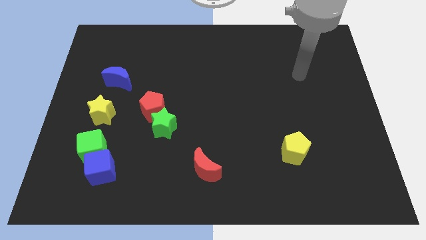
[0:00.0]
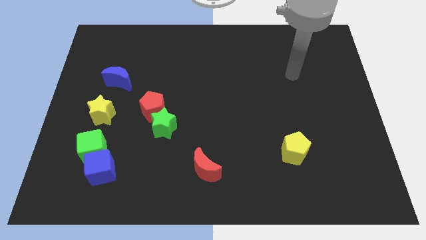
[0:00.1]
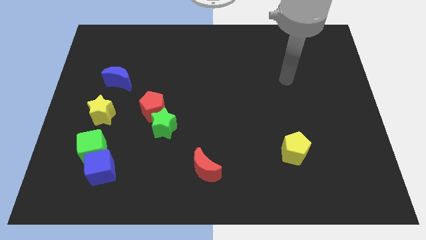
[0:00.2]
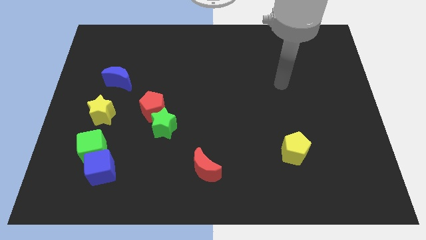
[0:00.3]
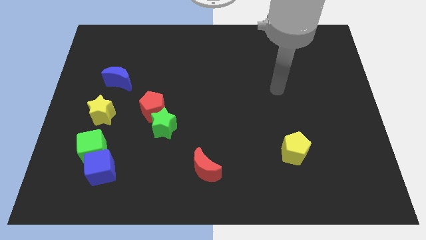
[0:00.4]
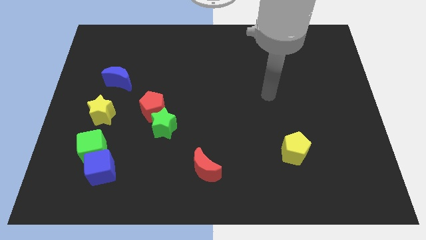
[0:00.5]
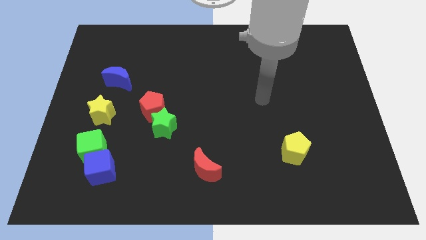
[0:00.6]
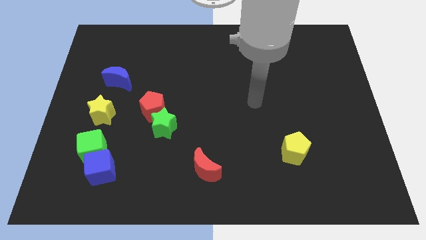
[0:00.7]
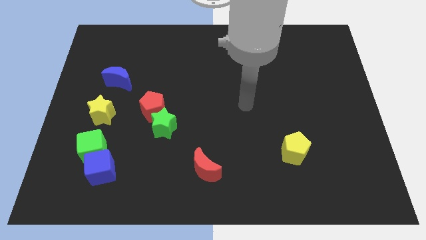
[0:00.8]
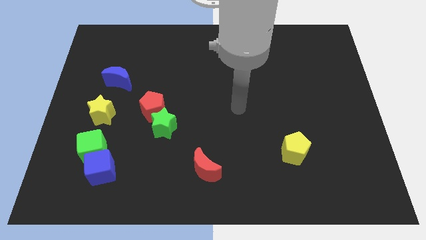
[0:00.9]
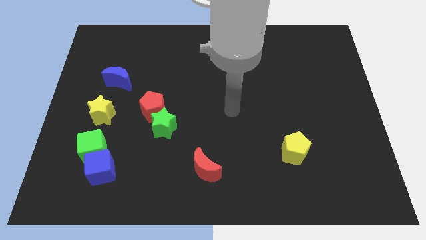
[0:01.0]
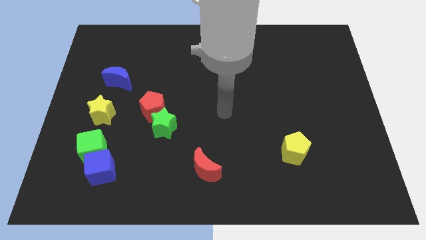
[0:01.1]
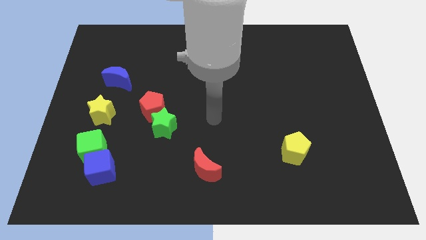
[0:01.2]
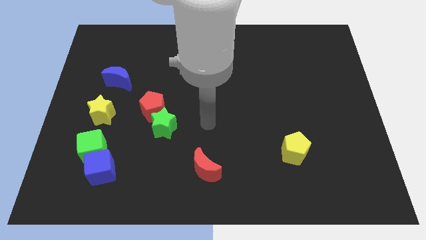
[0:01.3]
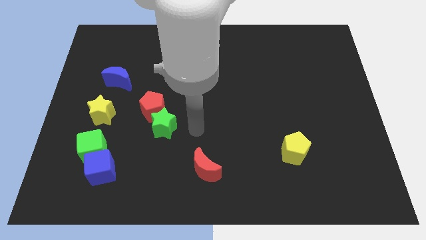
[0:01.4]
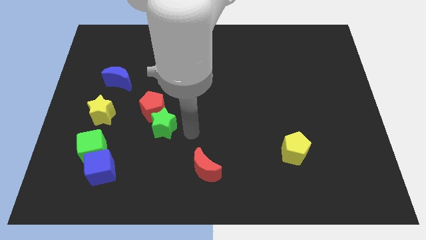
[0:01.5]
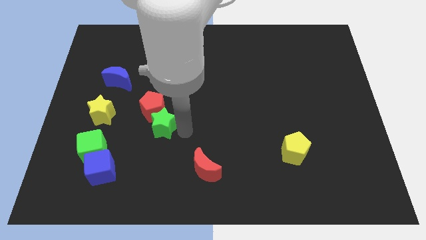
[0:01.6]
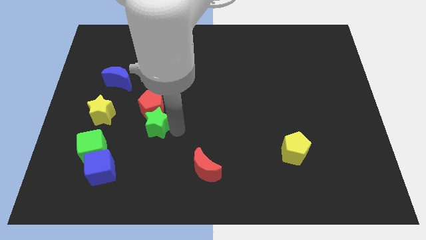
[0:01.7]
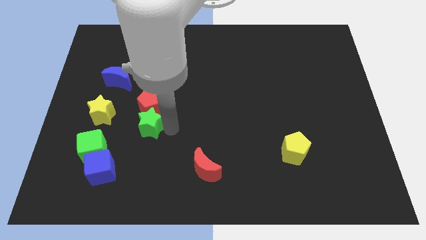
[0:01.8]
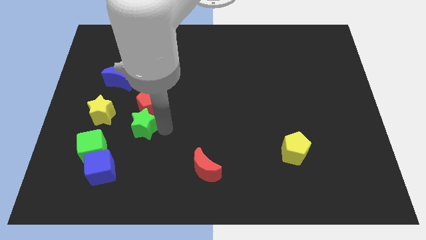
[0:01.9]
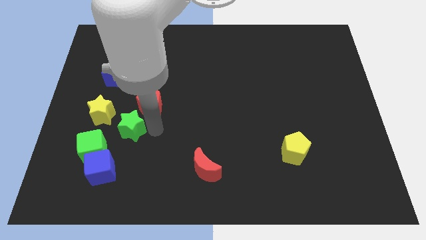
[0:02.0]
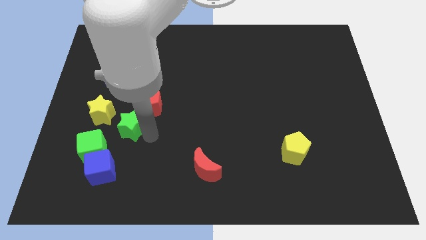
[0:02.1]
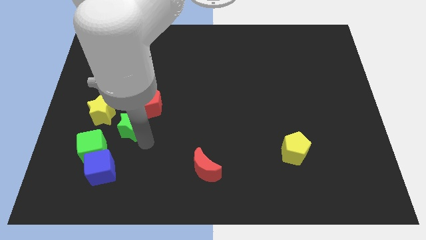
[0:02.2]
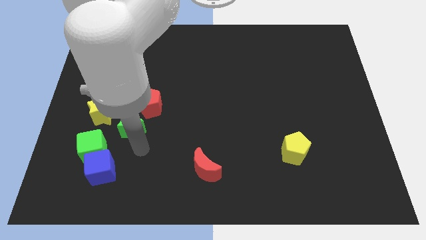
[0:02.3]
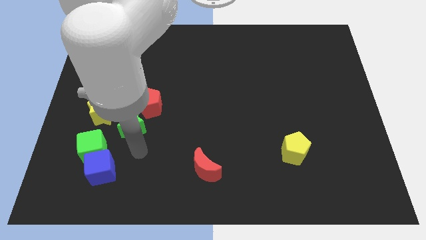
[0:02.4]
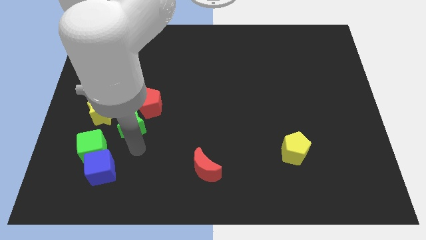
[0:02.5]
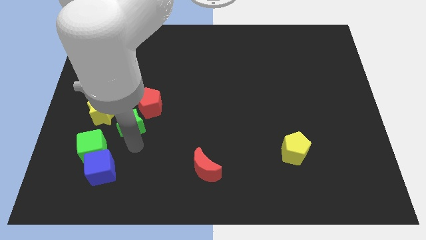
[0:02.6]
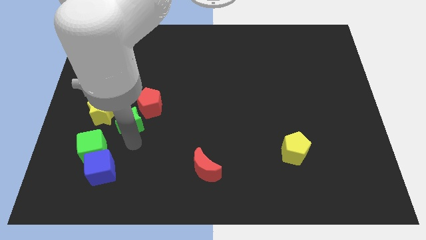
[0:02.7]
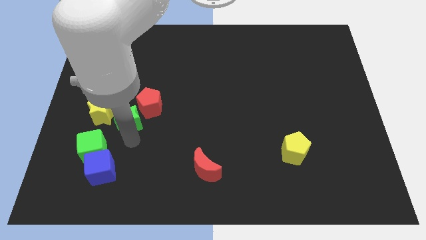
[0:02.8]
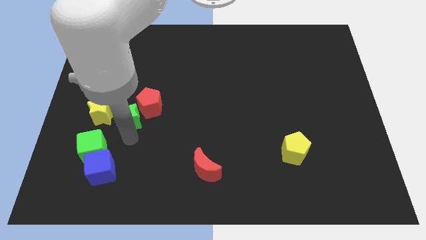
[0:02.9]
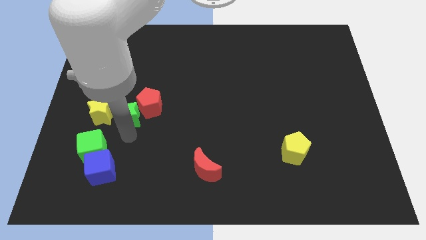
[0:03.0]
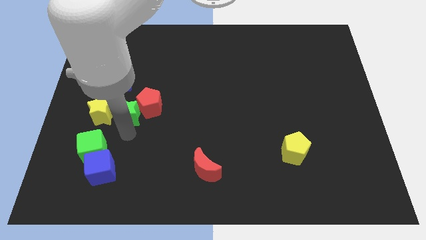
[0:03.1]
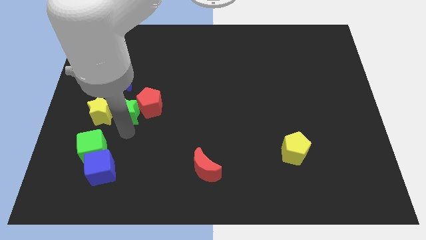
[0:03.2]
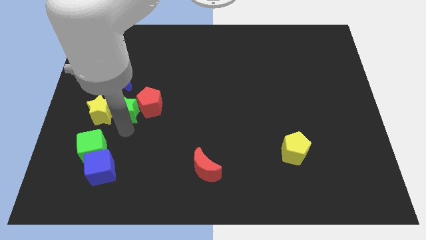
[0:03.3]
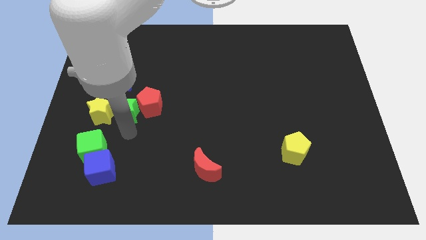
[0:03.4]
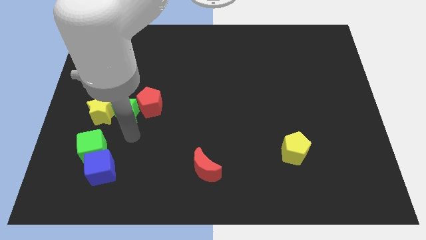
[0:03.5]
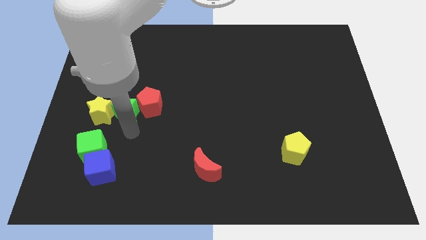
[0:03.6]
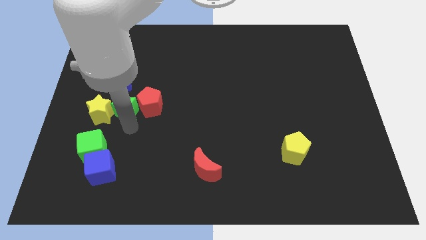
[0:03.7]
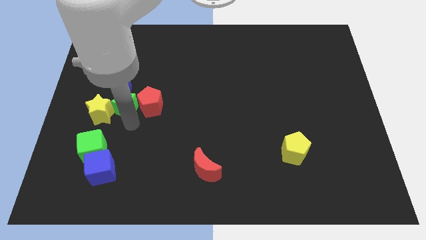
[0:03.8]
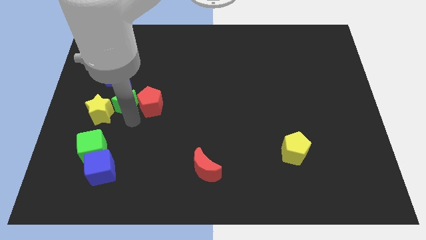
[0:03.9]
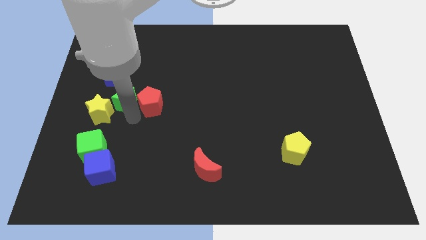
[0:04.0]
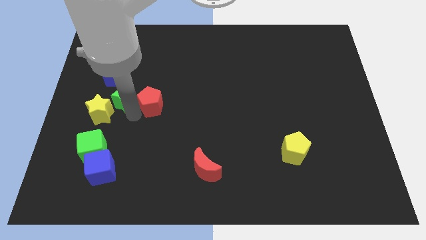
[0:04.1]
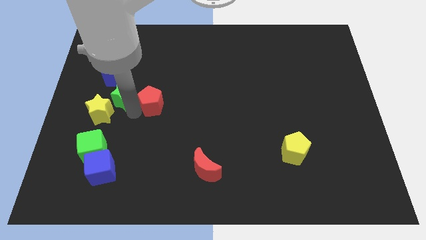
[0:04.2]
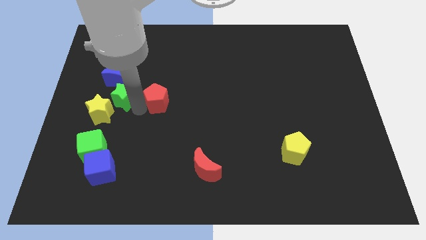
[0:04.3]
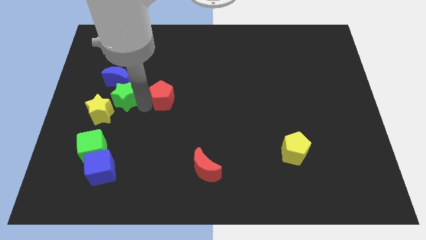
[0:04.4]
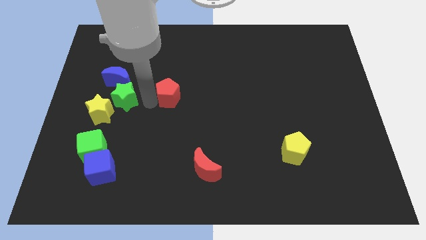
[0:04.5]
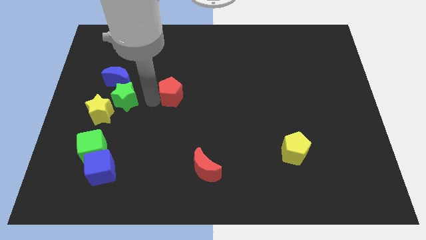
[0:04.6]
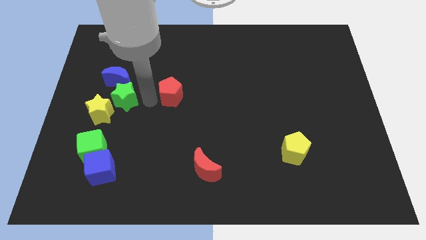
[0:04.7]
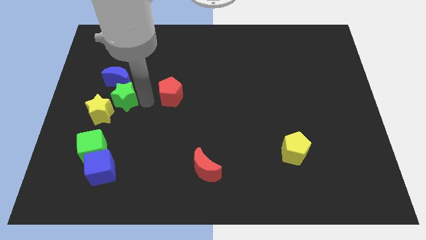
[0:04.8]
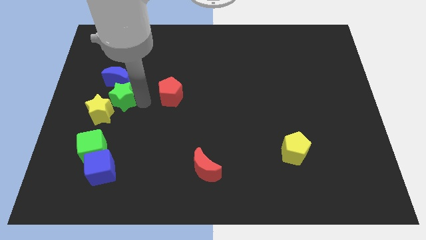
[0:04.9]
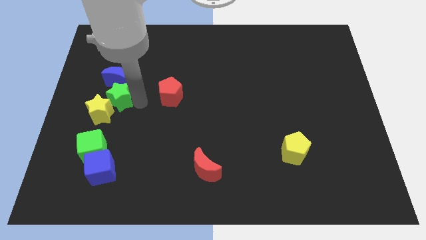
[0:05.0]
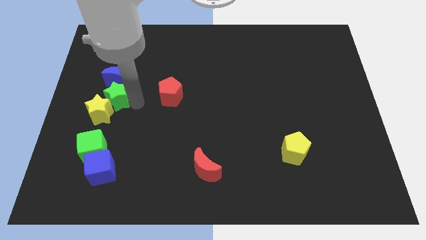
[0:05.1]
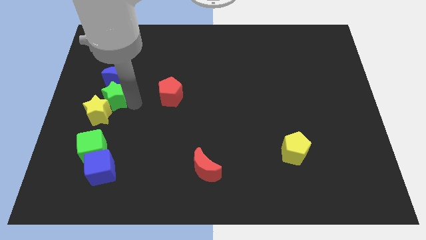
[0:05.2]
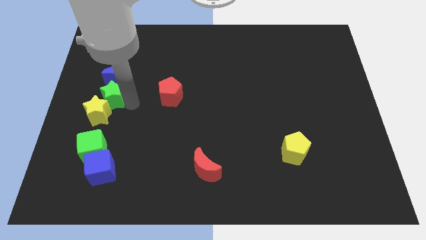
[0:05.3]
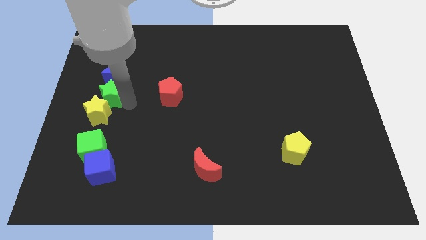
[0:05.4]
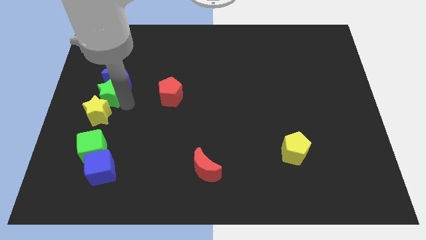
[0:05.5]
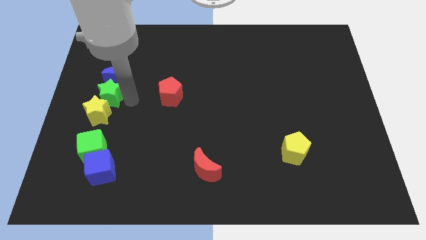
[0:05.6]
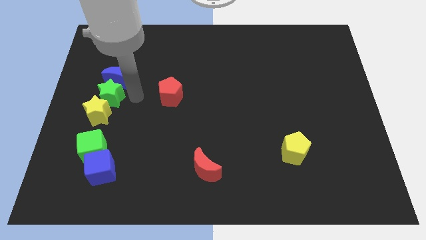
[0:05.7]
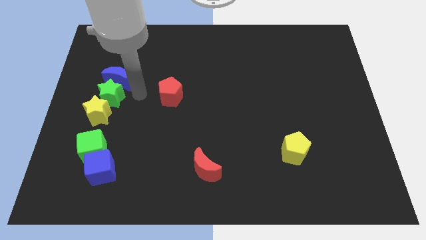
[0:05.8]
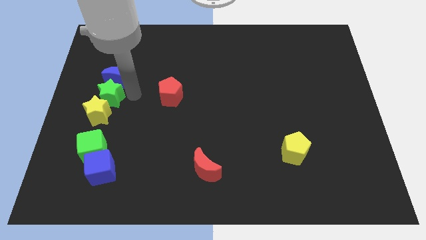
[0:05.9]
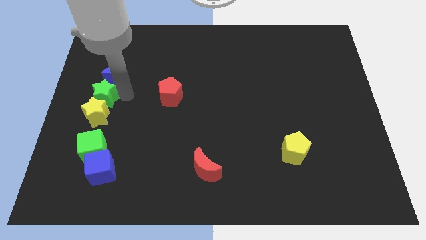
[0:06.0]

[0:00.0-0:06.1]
put the green star to the center left
